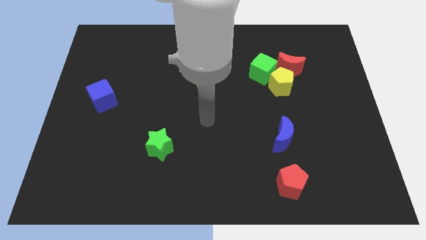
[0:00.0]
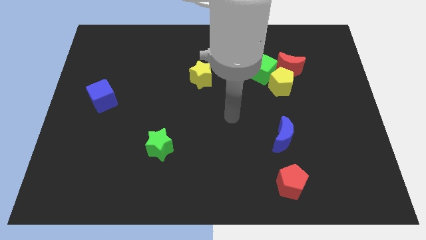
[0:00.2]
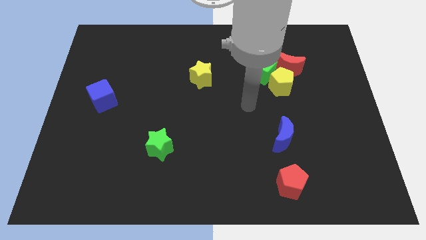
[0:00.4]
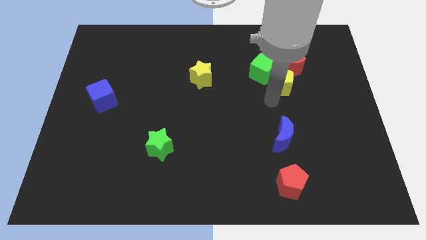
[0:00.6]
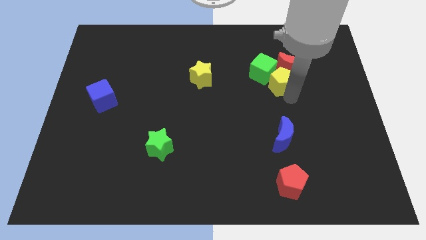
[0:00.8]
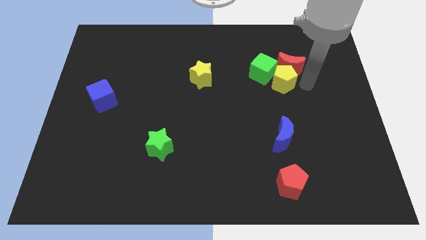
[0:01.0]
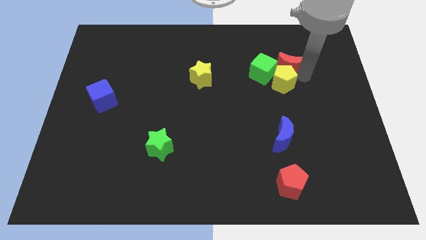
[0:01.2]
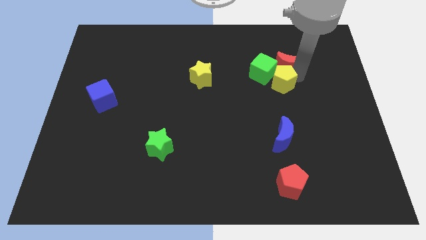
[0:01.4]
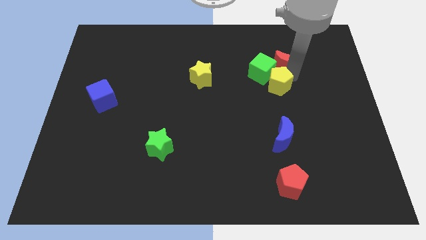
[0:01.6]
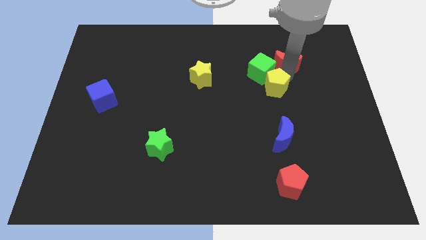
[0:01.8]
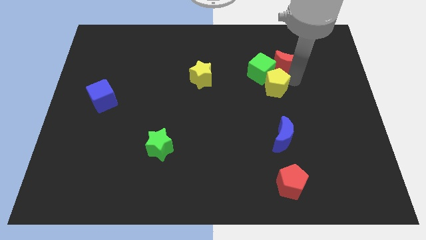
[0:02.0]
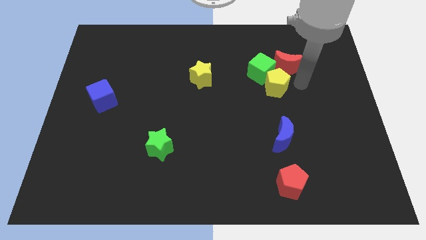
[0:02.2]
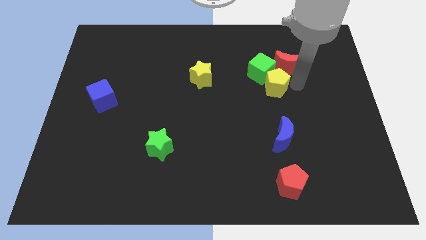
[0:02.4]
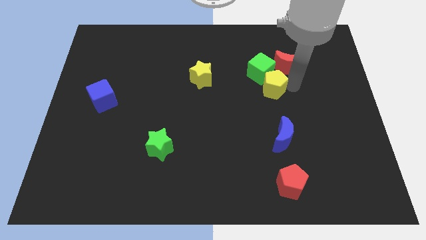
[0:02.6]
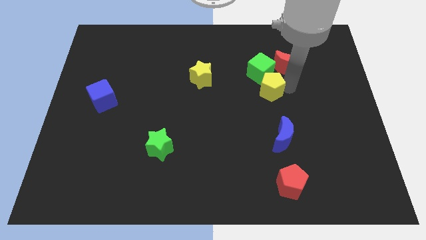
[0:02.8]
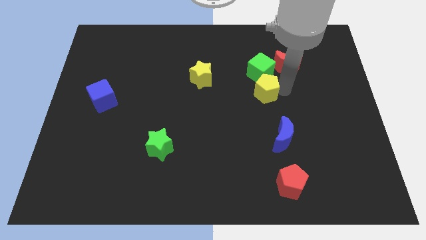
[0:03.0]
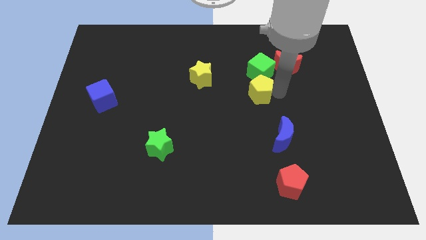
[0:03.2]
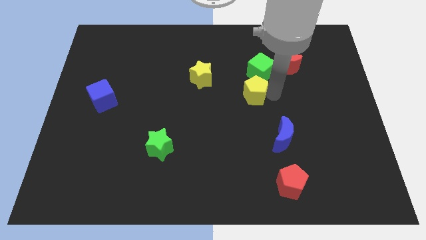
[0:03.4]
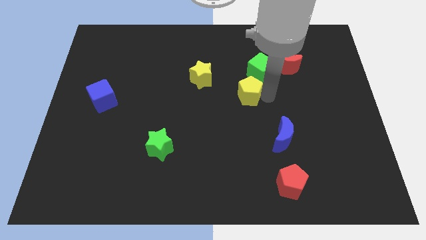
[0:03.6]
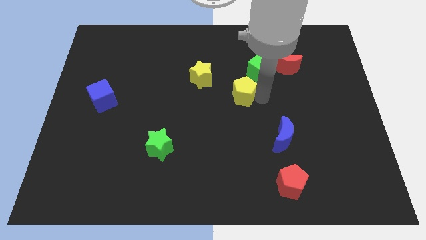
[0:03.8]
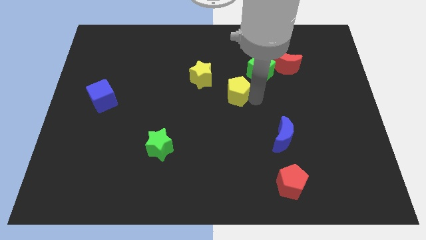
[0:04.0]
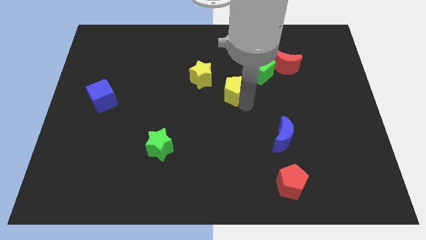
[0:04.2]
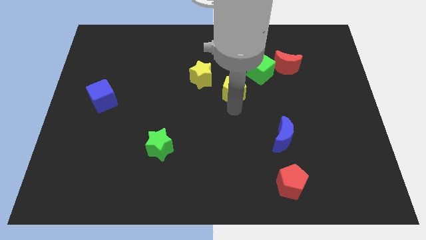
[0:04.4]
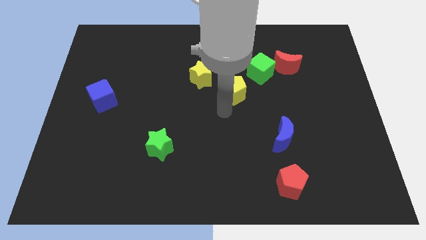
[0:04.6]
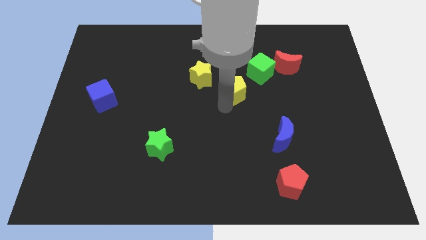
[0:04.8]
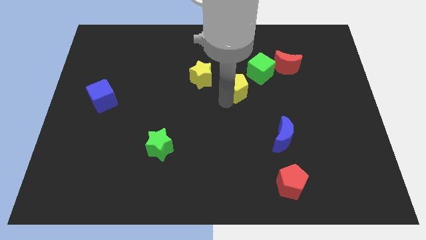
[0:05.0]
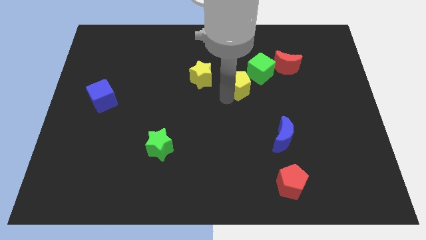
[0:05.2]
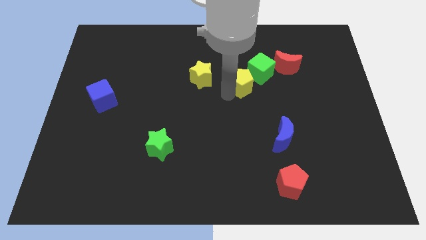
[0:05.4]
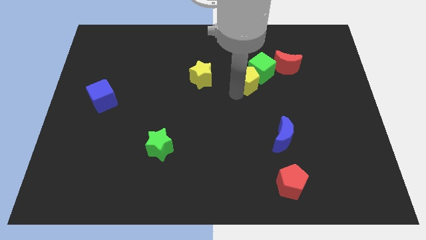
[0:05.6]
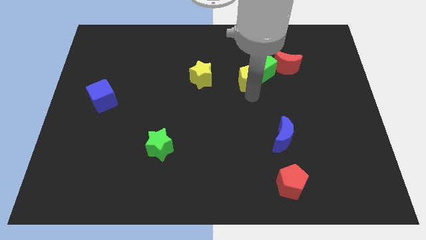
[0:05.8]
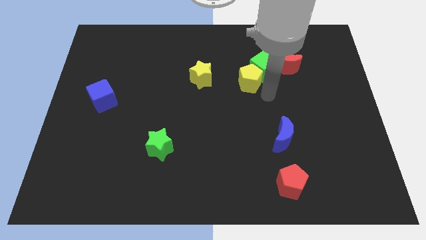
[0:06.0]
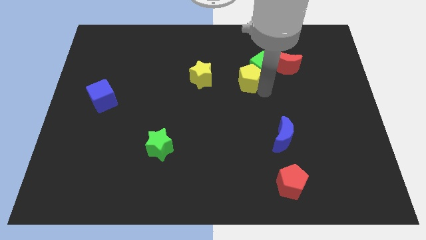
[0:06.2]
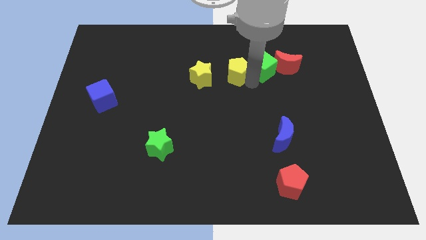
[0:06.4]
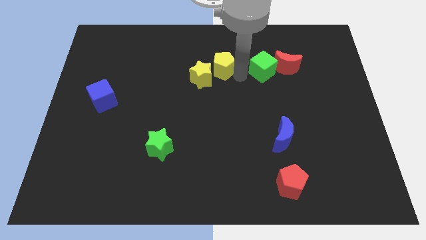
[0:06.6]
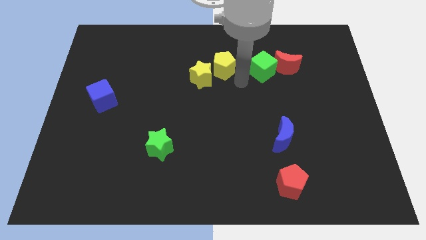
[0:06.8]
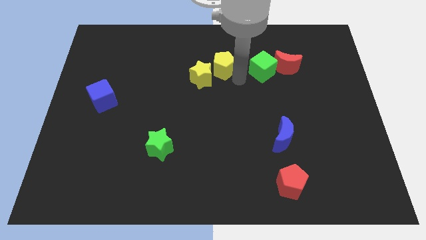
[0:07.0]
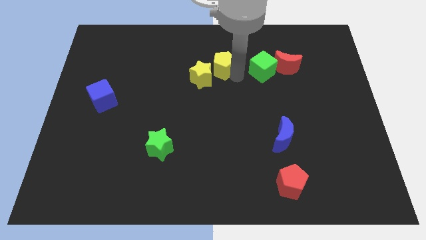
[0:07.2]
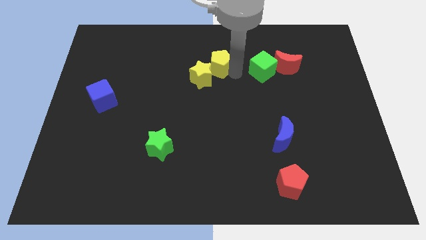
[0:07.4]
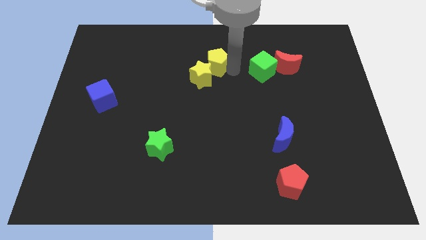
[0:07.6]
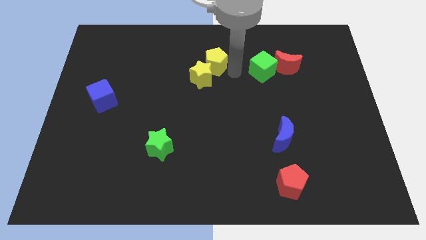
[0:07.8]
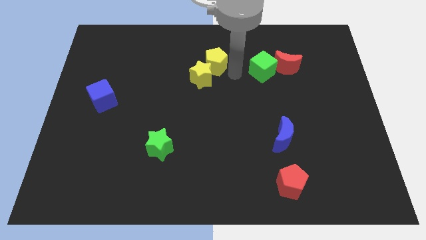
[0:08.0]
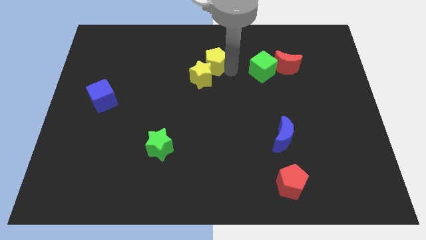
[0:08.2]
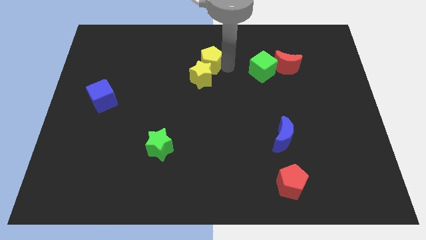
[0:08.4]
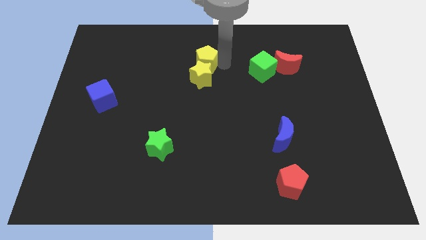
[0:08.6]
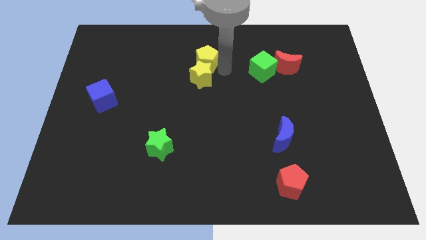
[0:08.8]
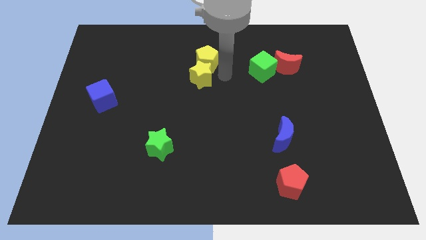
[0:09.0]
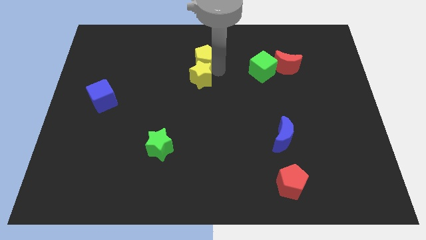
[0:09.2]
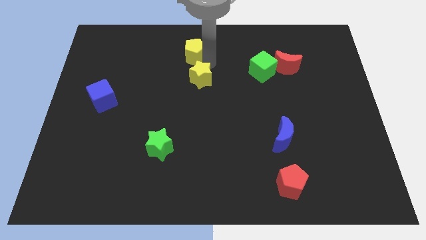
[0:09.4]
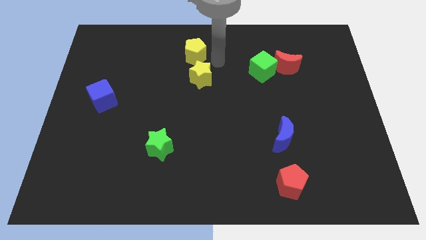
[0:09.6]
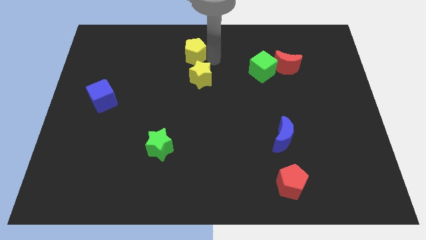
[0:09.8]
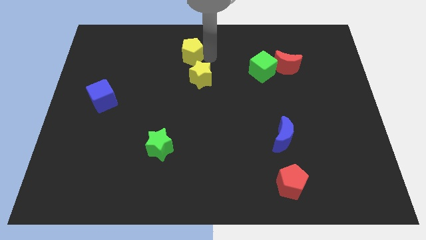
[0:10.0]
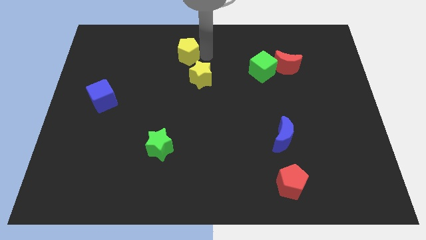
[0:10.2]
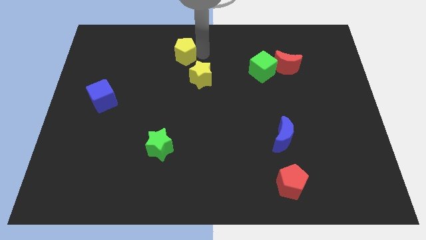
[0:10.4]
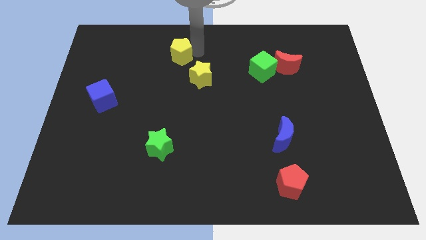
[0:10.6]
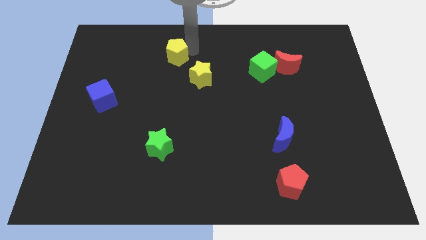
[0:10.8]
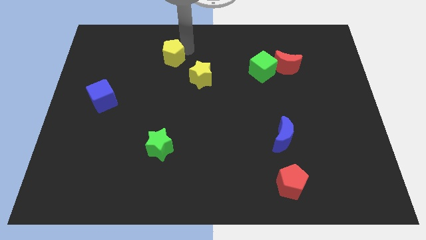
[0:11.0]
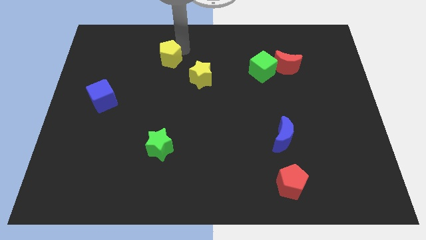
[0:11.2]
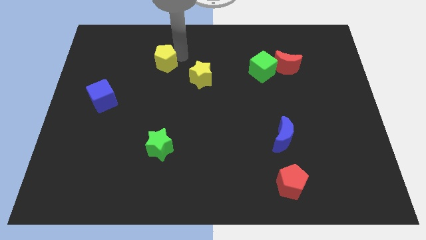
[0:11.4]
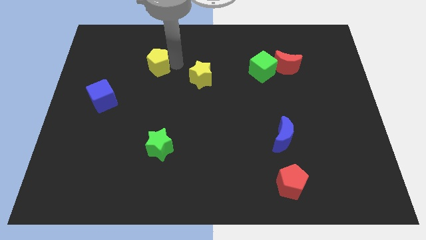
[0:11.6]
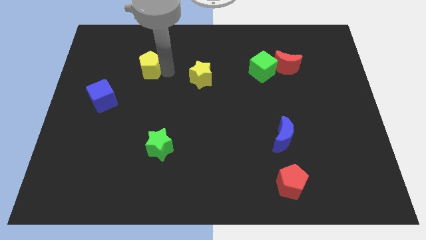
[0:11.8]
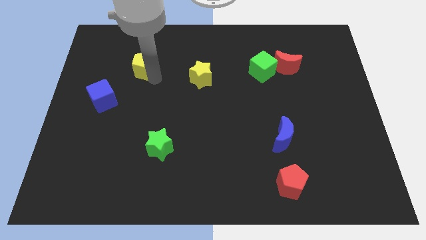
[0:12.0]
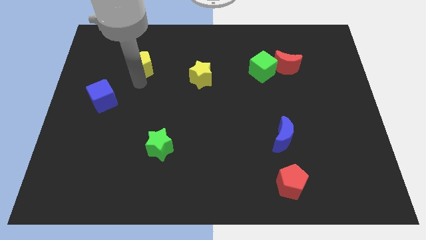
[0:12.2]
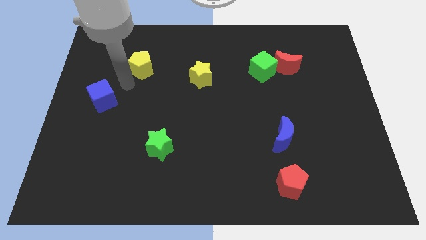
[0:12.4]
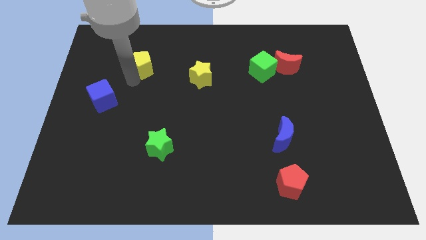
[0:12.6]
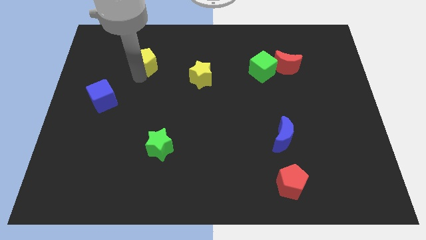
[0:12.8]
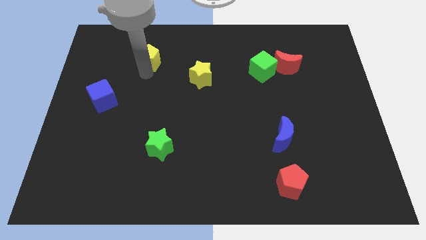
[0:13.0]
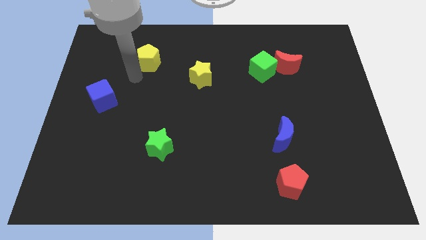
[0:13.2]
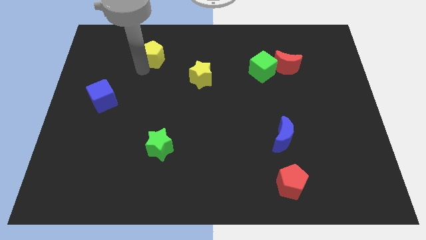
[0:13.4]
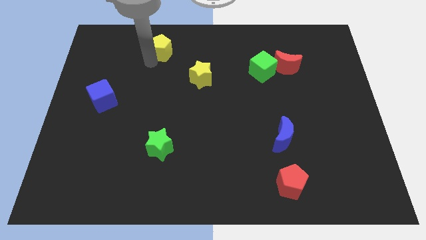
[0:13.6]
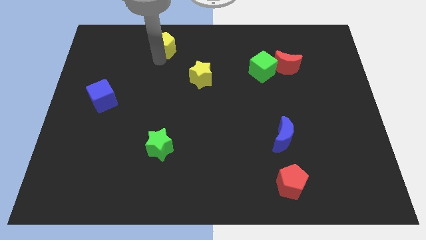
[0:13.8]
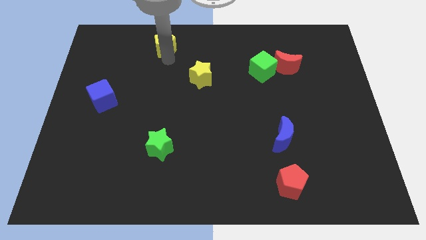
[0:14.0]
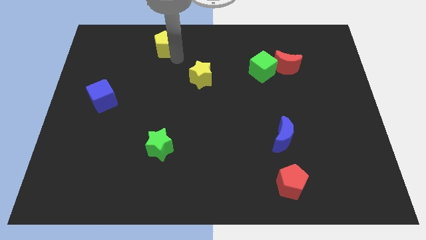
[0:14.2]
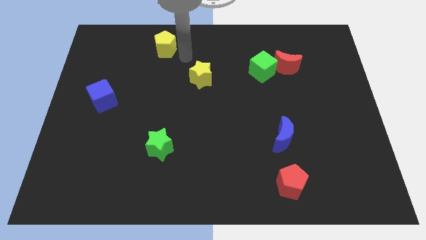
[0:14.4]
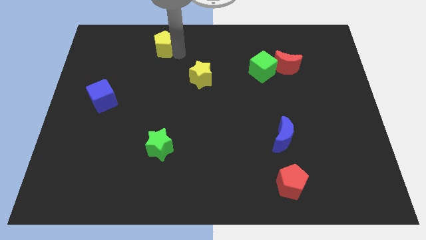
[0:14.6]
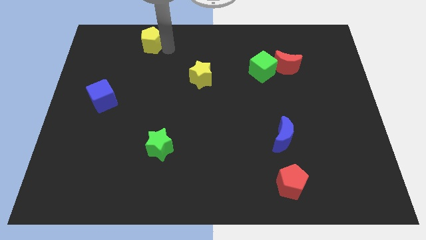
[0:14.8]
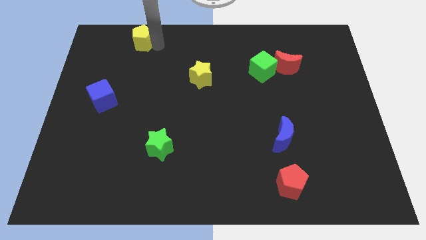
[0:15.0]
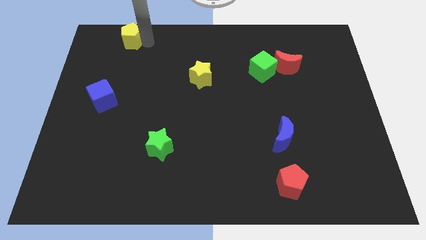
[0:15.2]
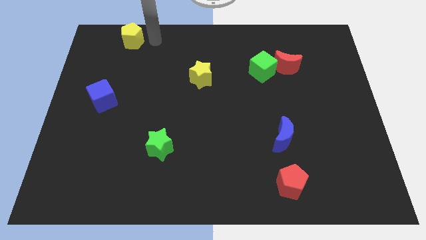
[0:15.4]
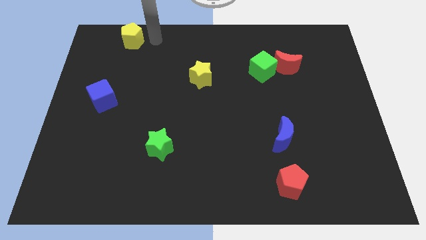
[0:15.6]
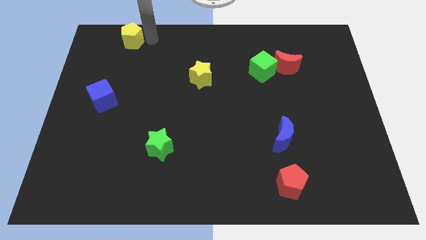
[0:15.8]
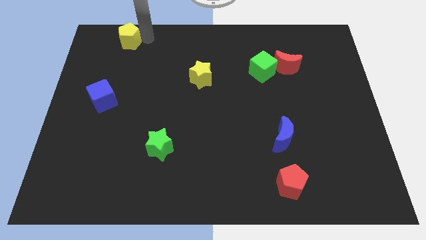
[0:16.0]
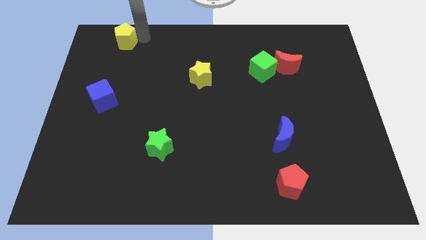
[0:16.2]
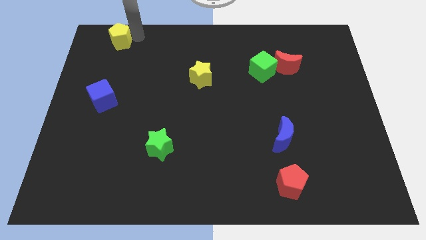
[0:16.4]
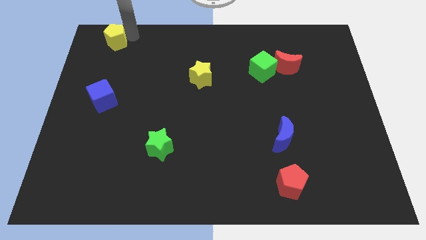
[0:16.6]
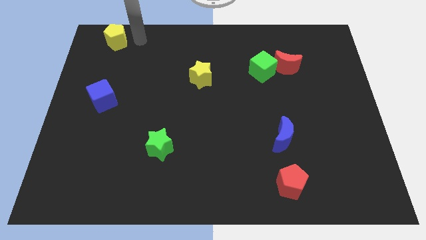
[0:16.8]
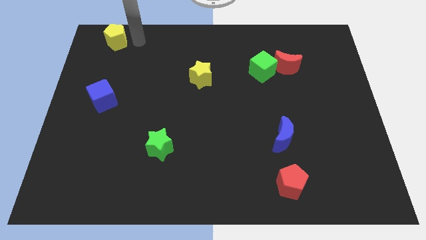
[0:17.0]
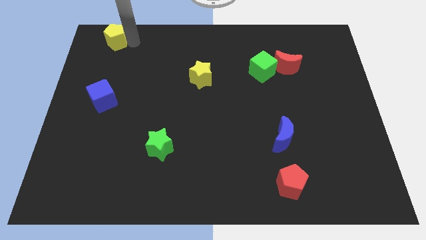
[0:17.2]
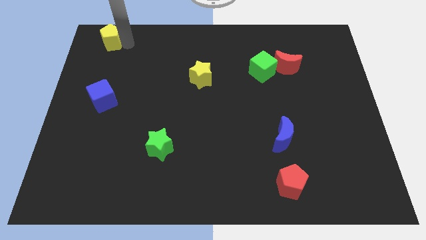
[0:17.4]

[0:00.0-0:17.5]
push the yellow pentagon to the top left
